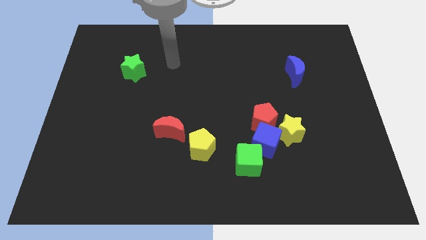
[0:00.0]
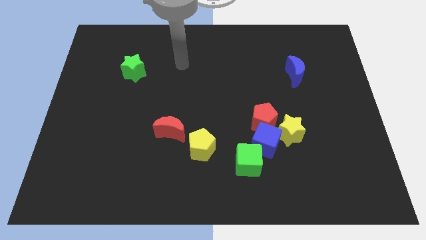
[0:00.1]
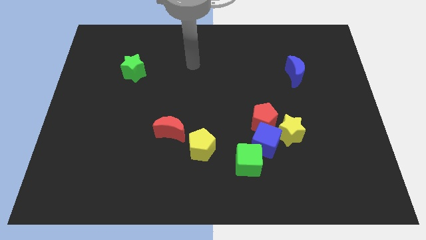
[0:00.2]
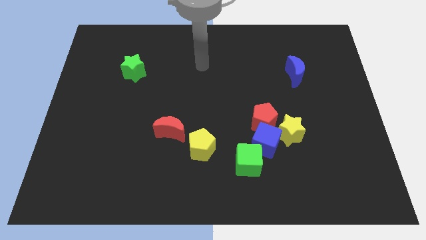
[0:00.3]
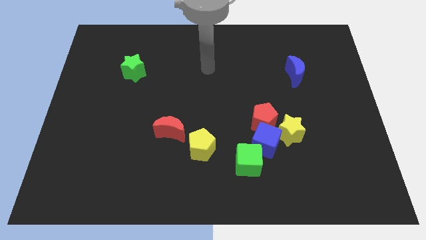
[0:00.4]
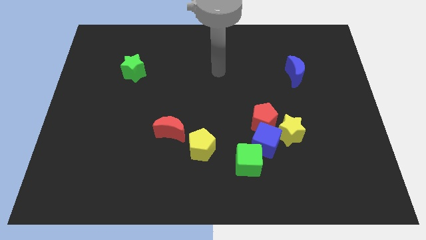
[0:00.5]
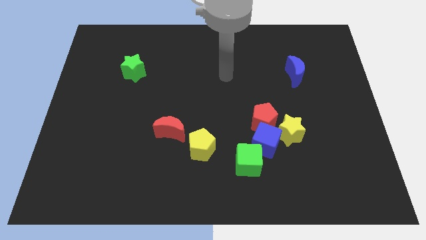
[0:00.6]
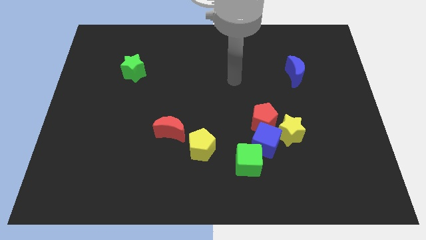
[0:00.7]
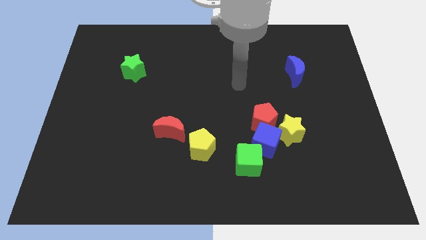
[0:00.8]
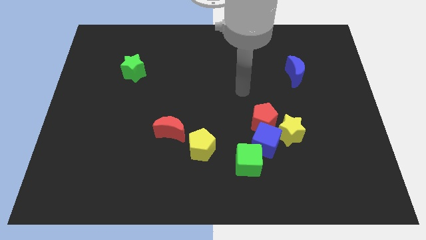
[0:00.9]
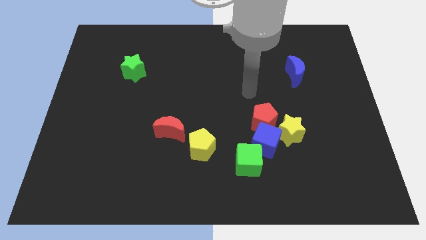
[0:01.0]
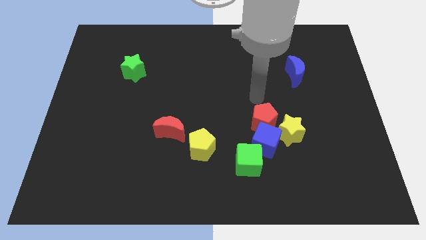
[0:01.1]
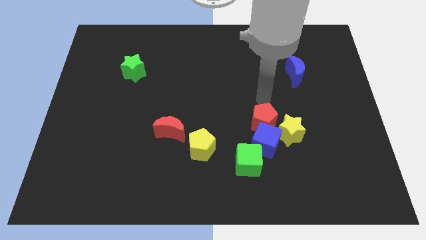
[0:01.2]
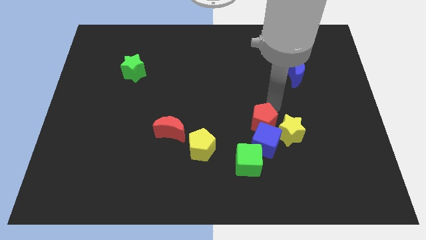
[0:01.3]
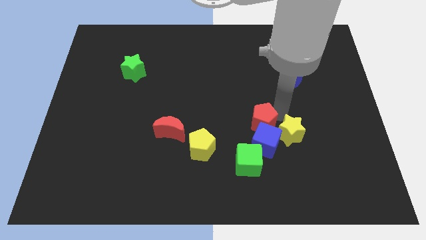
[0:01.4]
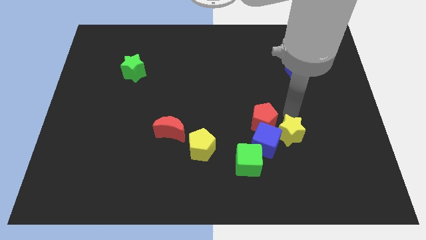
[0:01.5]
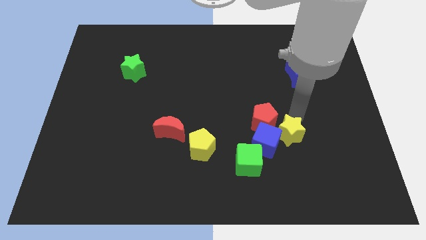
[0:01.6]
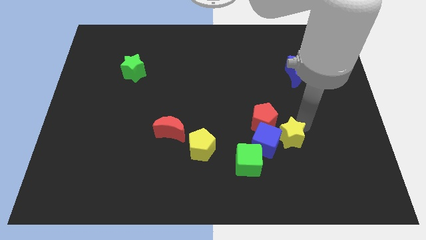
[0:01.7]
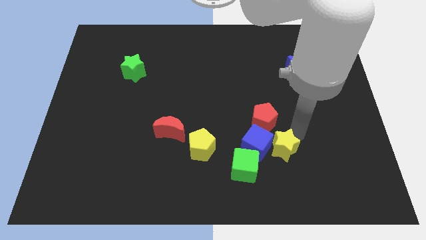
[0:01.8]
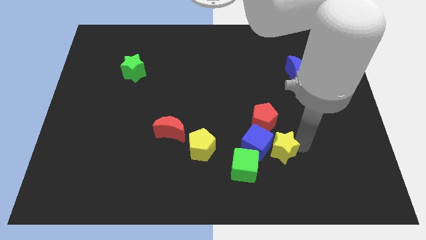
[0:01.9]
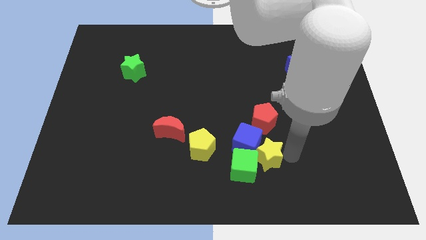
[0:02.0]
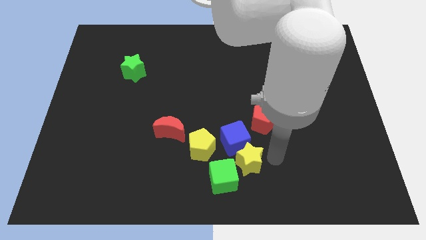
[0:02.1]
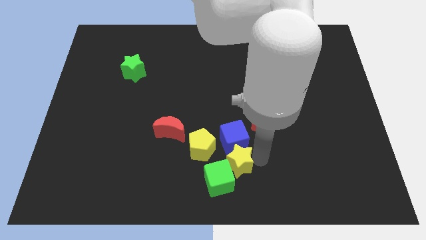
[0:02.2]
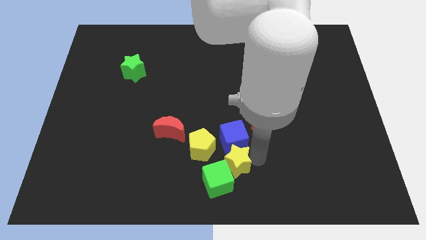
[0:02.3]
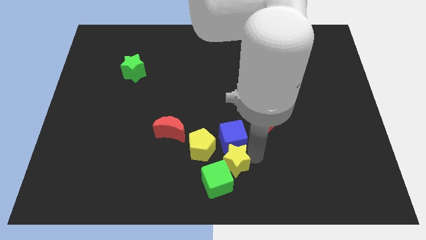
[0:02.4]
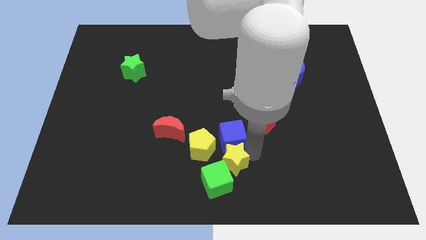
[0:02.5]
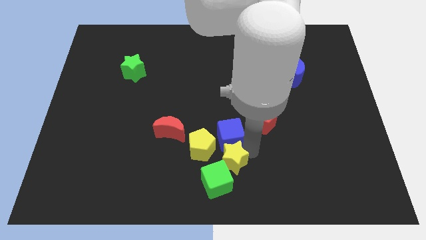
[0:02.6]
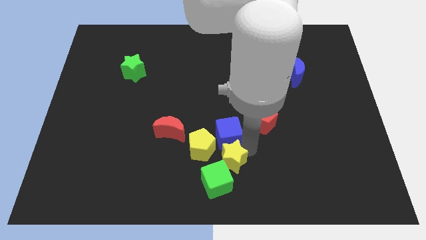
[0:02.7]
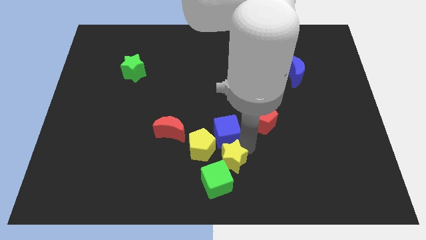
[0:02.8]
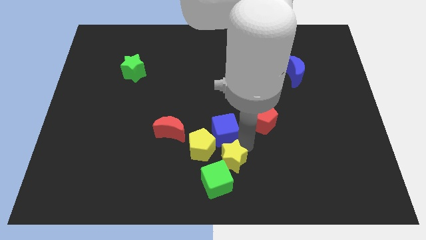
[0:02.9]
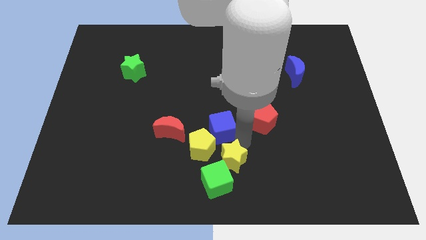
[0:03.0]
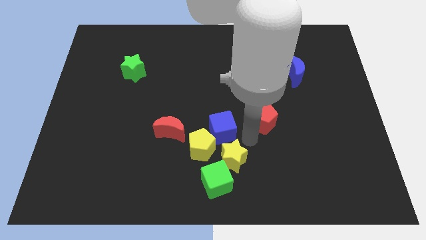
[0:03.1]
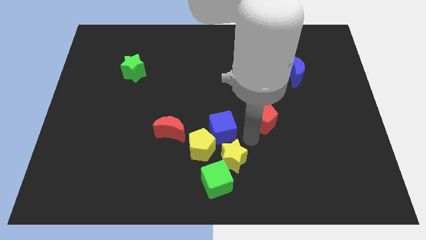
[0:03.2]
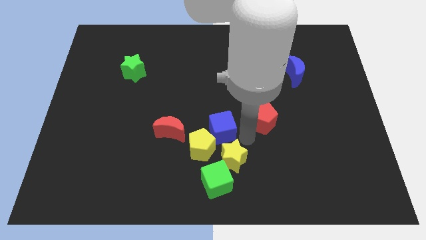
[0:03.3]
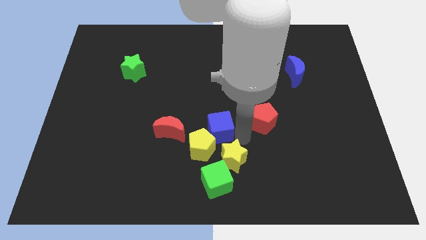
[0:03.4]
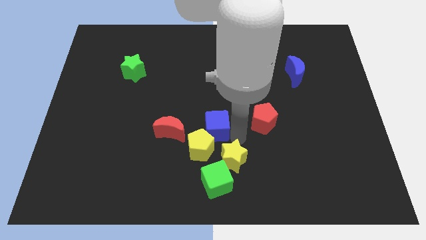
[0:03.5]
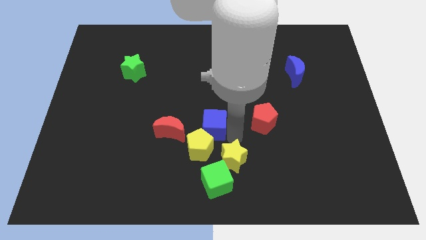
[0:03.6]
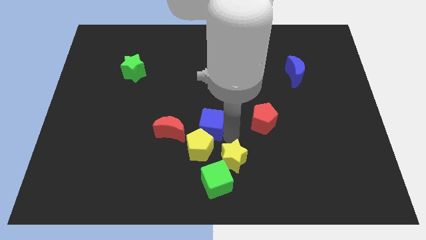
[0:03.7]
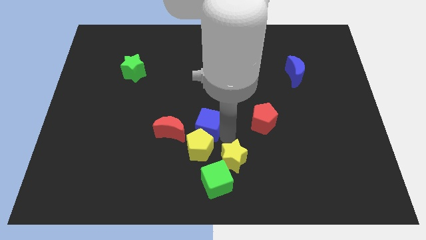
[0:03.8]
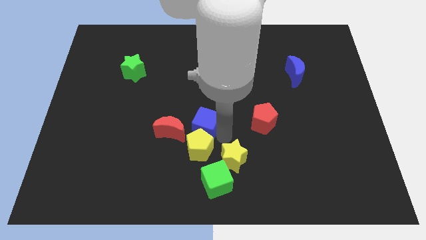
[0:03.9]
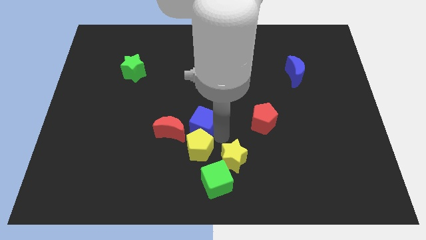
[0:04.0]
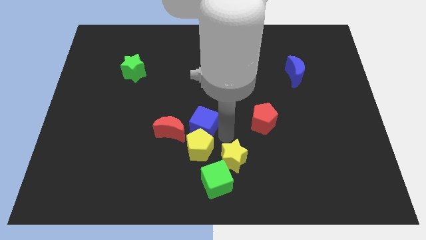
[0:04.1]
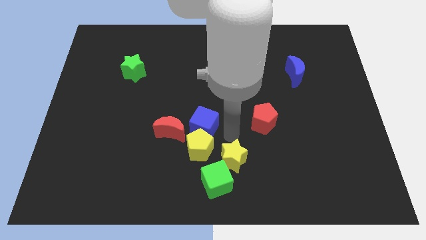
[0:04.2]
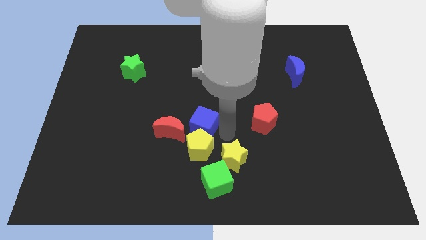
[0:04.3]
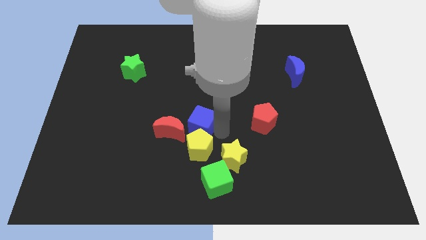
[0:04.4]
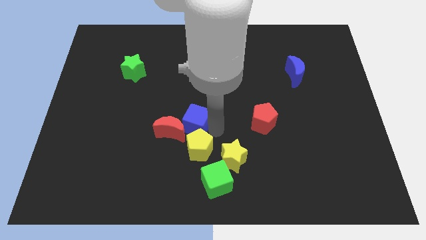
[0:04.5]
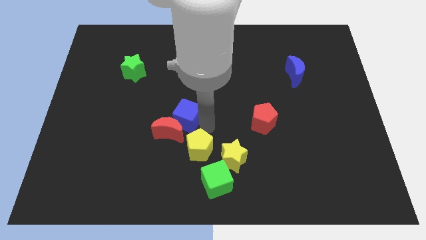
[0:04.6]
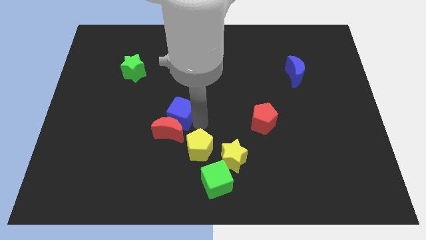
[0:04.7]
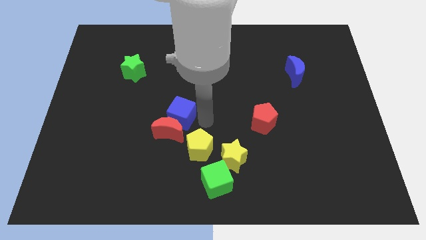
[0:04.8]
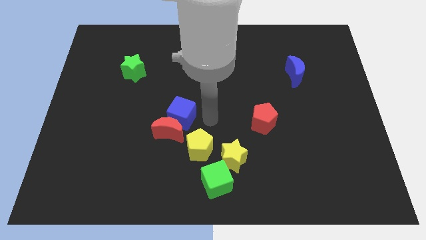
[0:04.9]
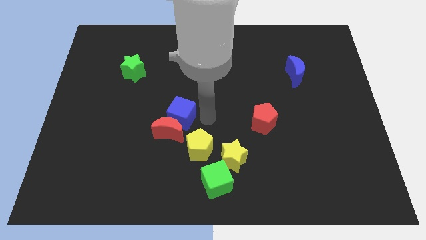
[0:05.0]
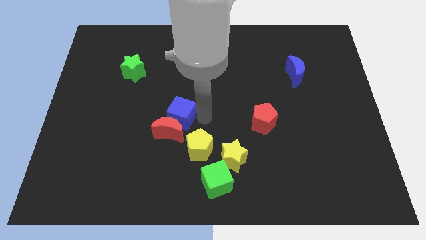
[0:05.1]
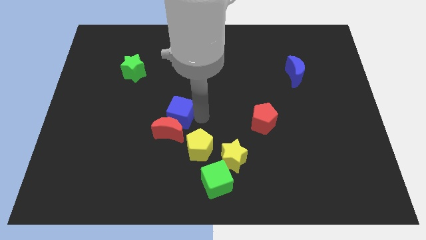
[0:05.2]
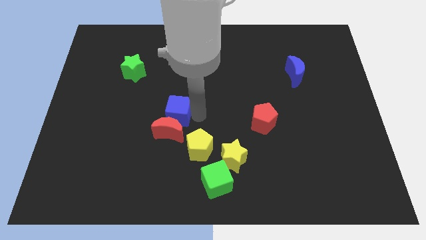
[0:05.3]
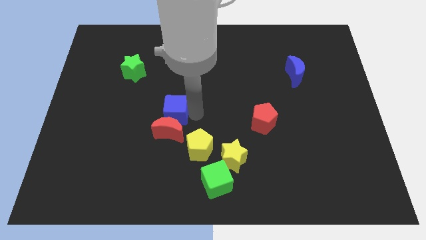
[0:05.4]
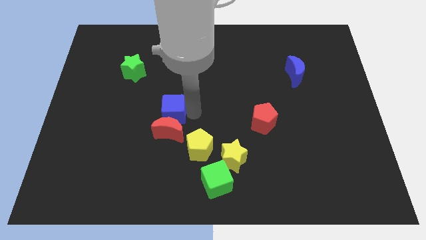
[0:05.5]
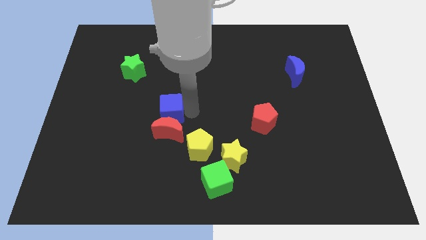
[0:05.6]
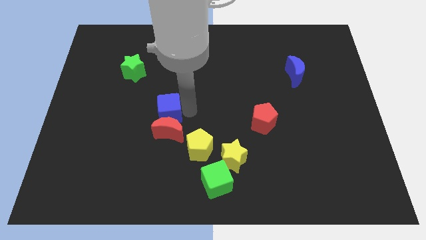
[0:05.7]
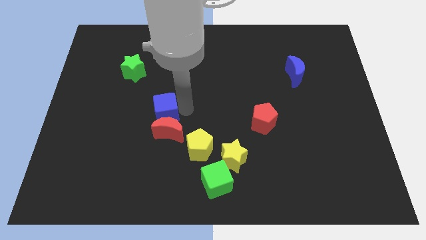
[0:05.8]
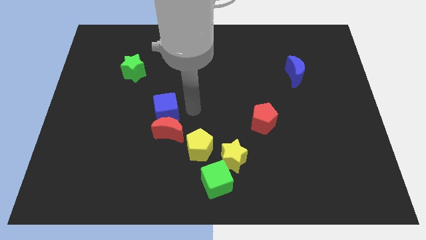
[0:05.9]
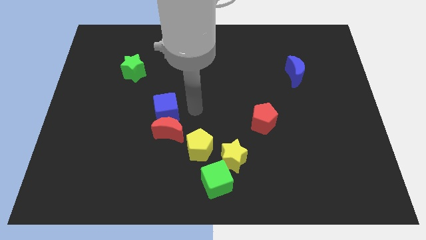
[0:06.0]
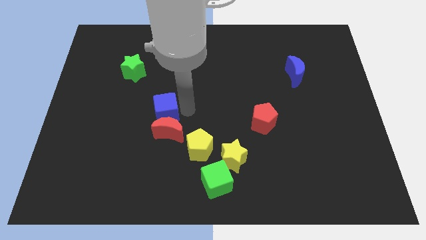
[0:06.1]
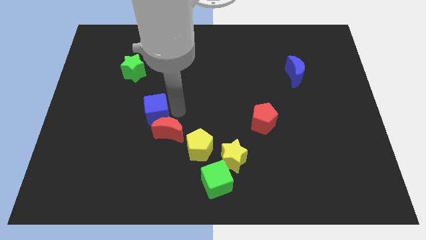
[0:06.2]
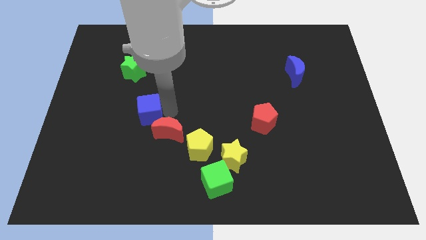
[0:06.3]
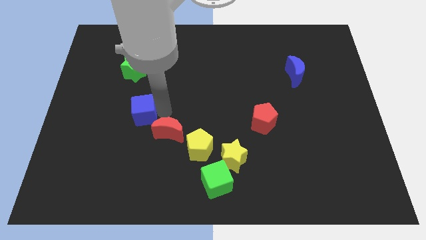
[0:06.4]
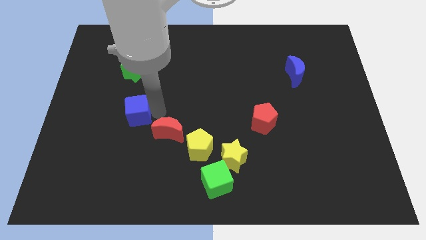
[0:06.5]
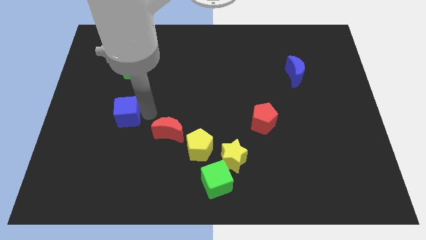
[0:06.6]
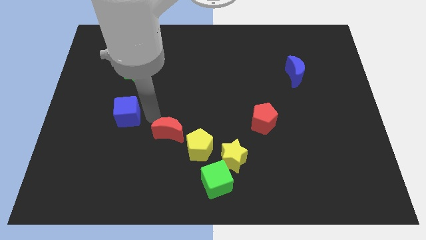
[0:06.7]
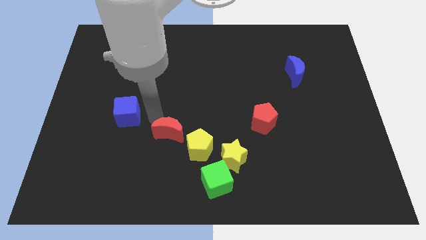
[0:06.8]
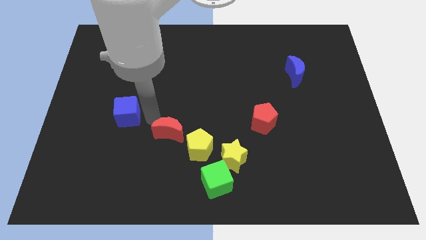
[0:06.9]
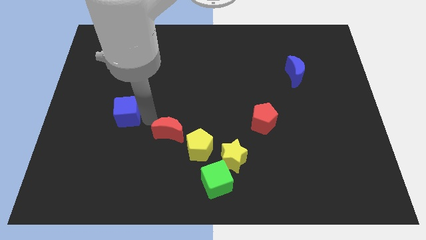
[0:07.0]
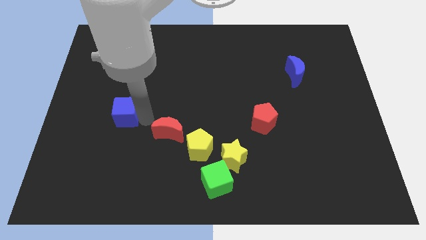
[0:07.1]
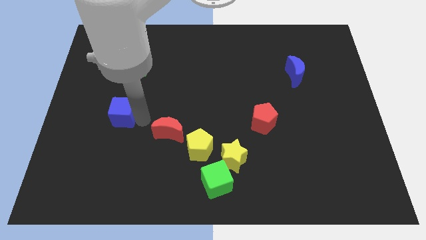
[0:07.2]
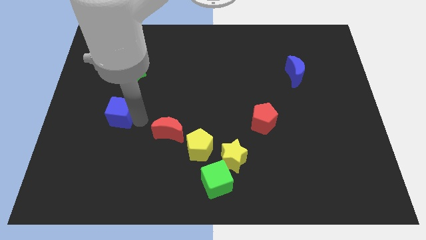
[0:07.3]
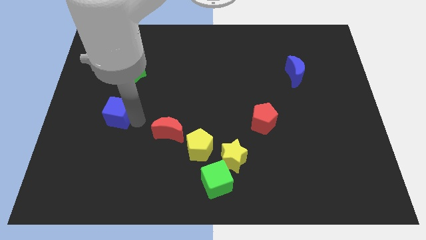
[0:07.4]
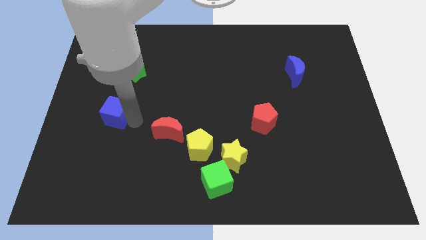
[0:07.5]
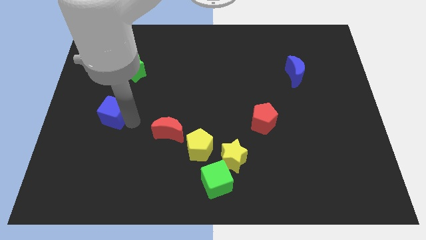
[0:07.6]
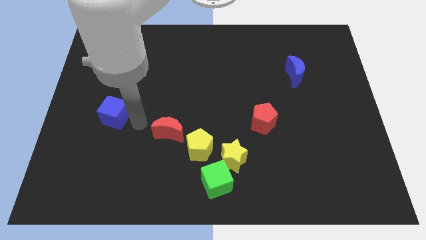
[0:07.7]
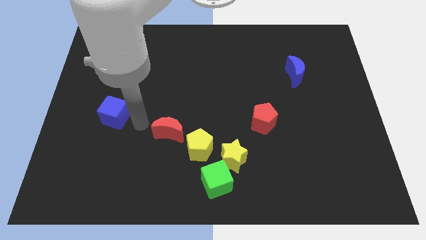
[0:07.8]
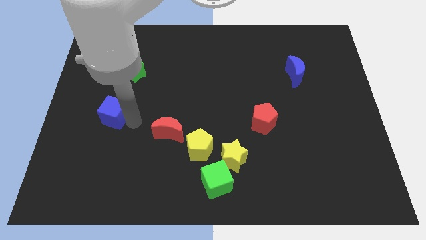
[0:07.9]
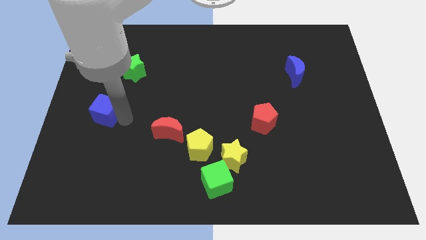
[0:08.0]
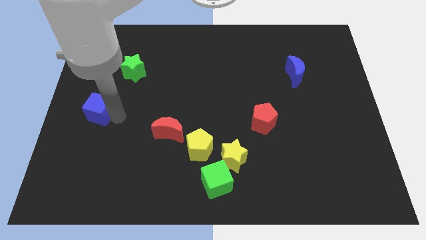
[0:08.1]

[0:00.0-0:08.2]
put the blue cube to the center left
